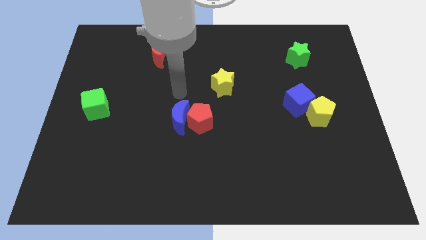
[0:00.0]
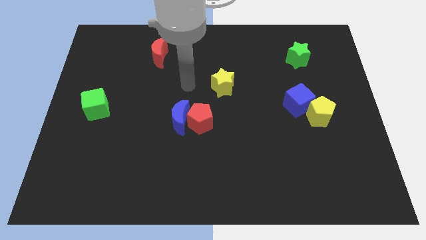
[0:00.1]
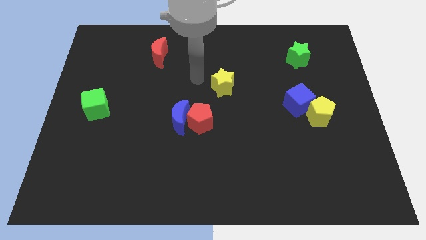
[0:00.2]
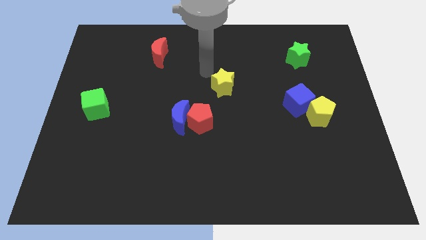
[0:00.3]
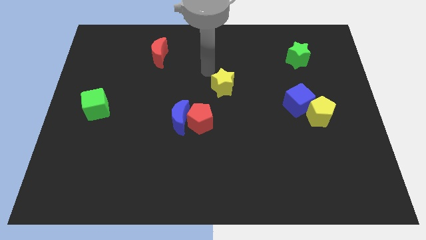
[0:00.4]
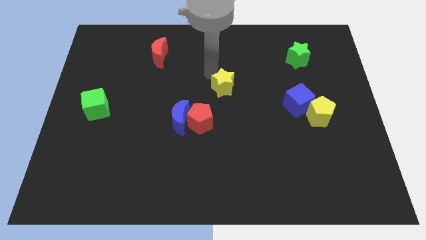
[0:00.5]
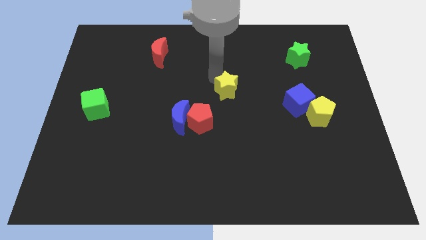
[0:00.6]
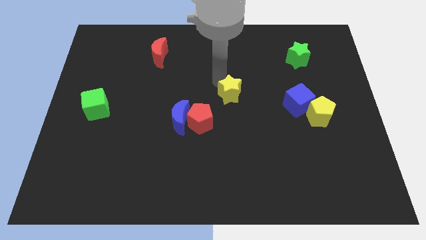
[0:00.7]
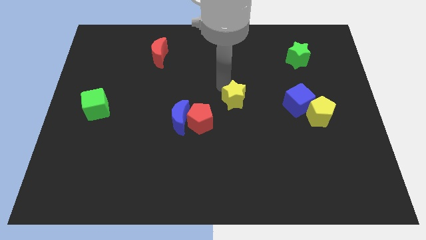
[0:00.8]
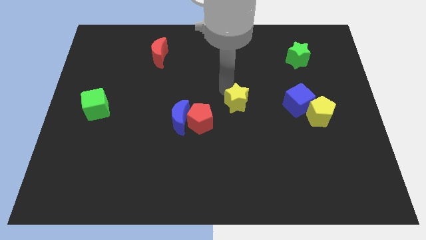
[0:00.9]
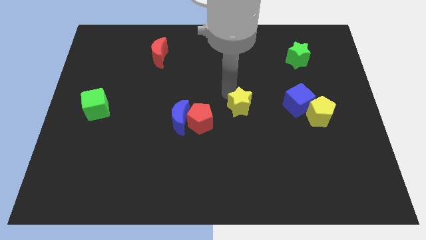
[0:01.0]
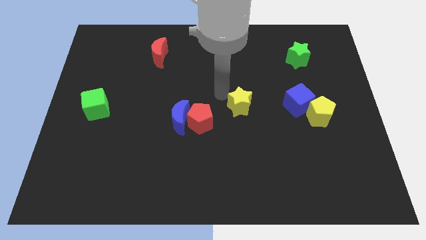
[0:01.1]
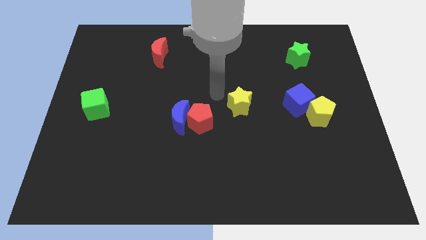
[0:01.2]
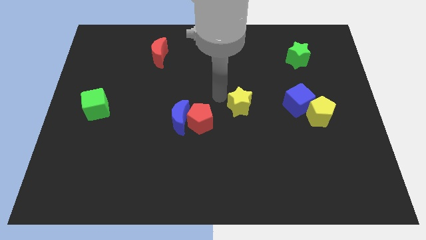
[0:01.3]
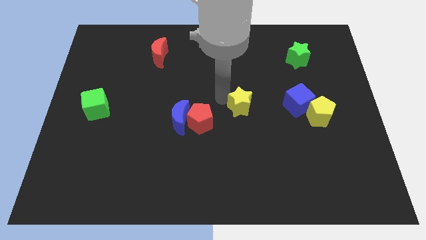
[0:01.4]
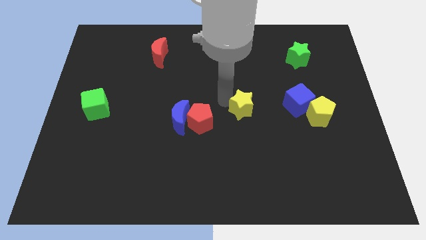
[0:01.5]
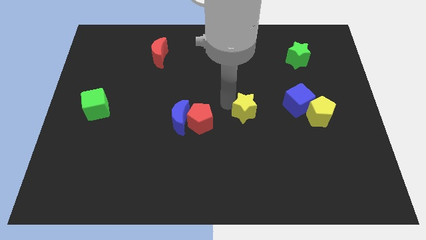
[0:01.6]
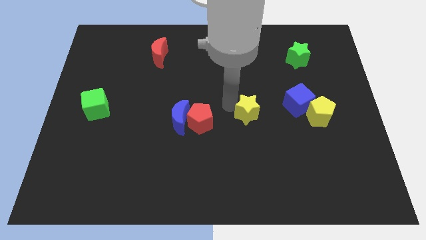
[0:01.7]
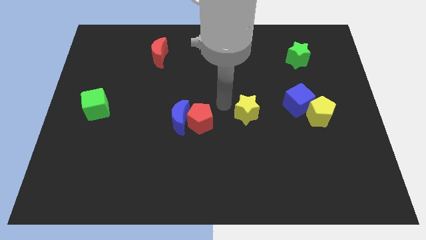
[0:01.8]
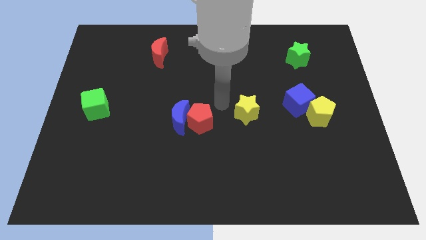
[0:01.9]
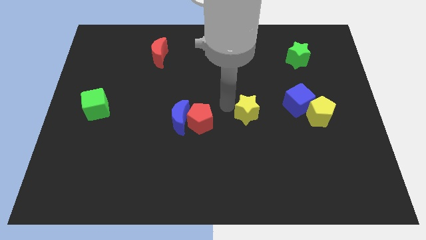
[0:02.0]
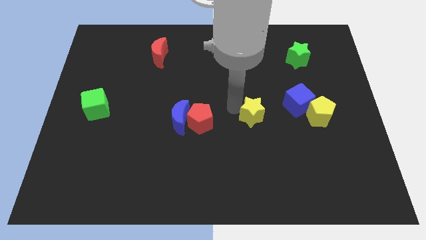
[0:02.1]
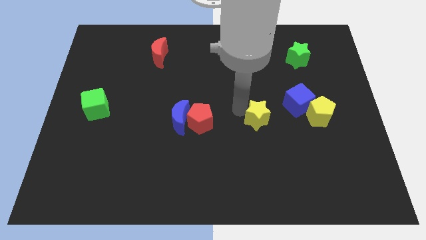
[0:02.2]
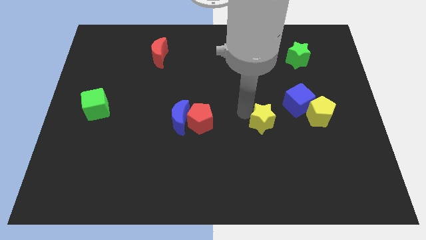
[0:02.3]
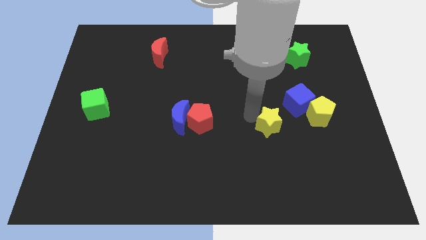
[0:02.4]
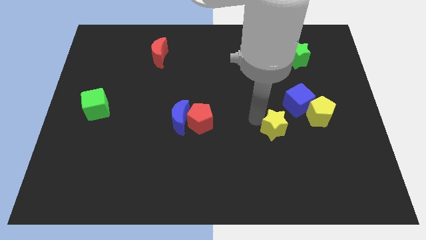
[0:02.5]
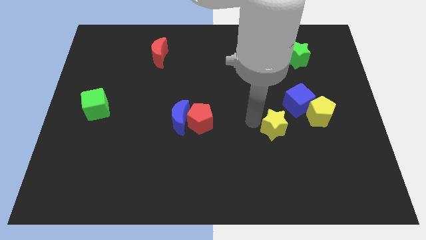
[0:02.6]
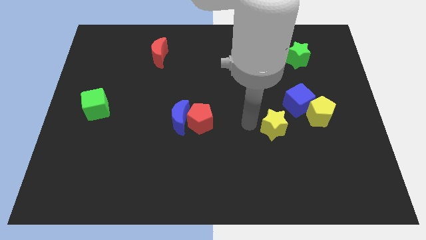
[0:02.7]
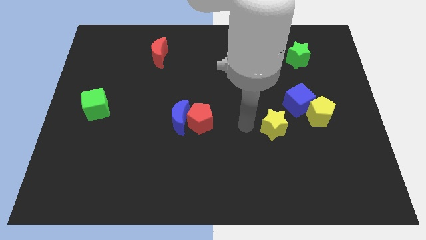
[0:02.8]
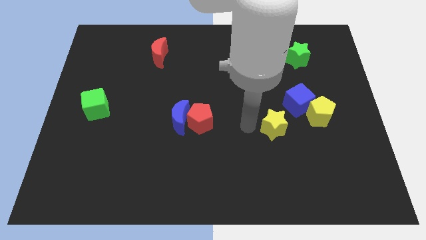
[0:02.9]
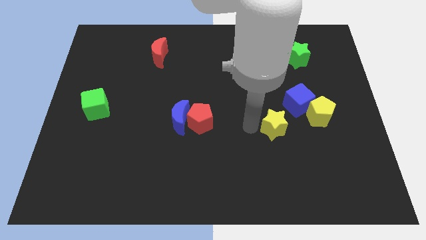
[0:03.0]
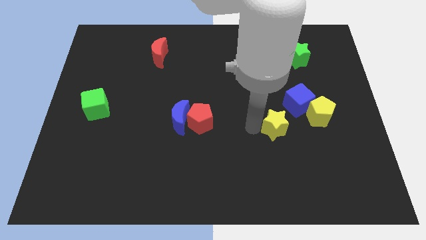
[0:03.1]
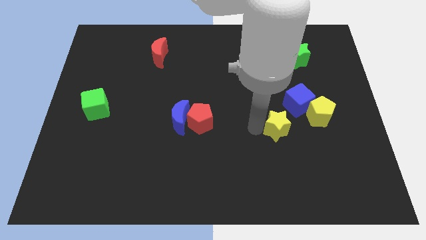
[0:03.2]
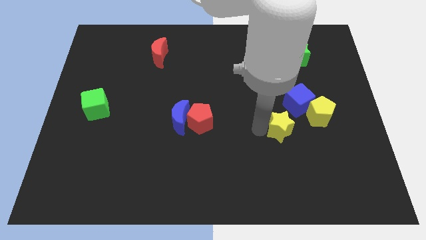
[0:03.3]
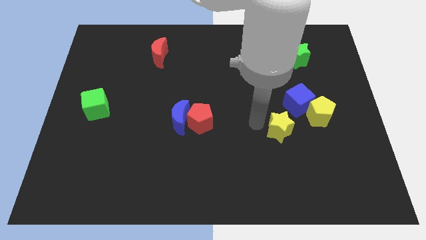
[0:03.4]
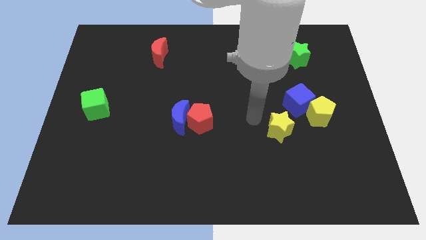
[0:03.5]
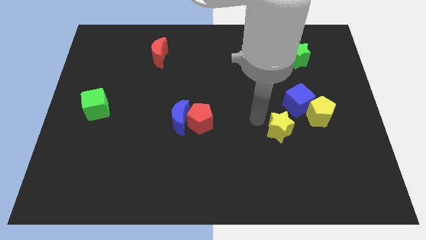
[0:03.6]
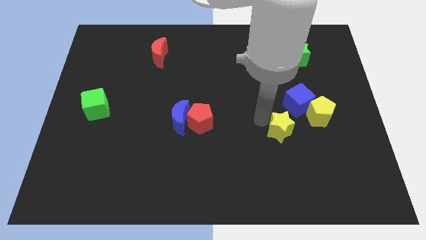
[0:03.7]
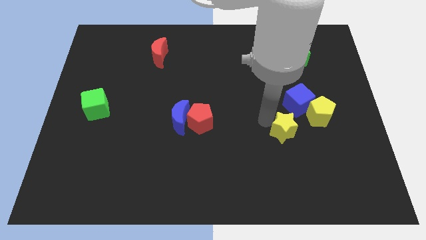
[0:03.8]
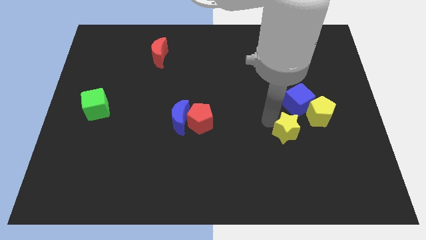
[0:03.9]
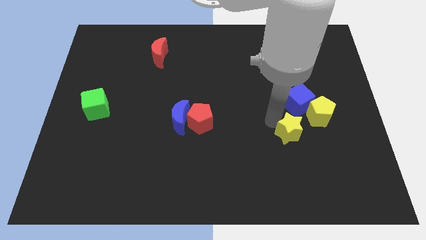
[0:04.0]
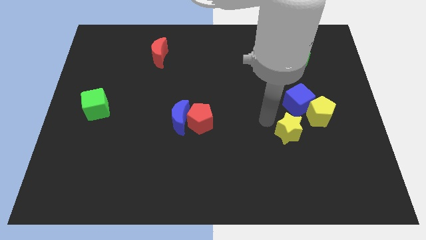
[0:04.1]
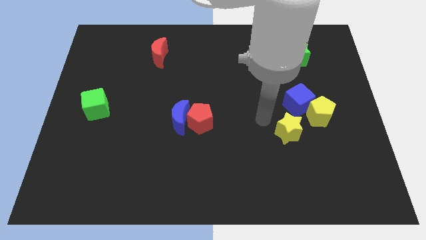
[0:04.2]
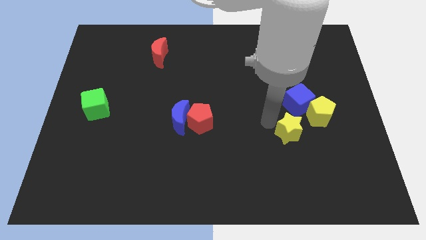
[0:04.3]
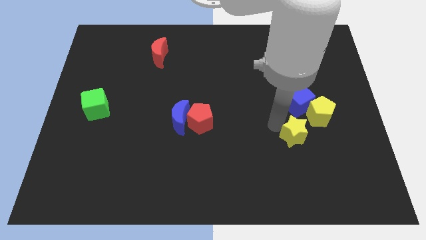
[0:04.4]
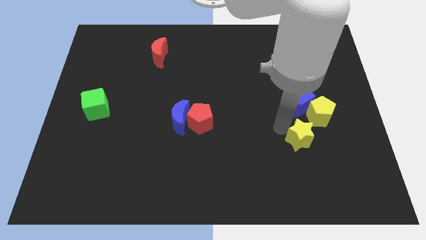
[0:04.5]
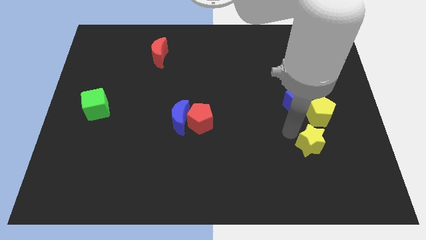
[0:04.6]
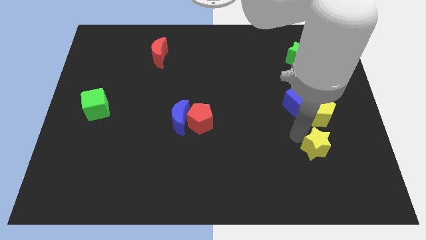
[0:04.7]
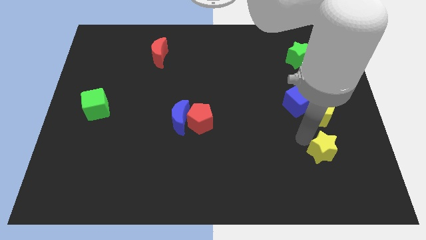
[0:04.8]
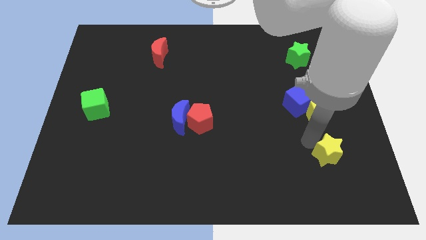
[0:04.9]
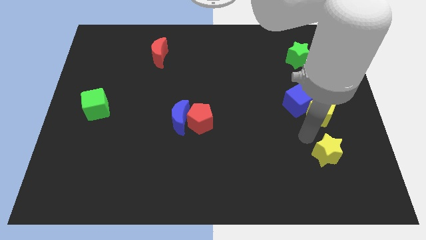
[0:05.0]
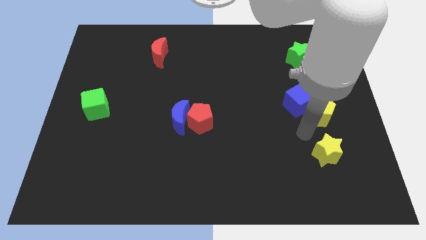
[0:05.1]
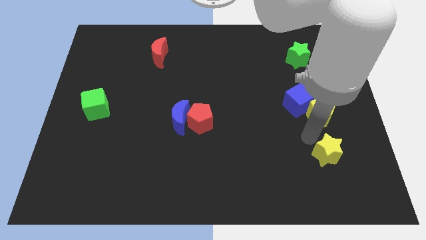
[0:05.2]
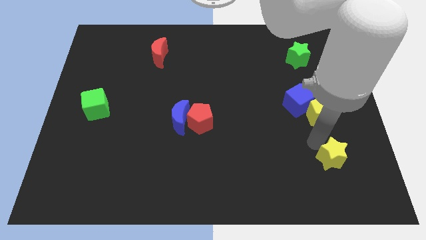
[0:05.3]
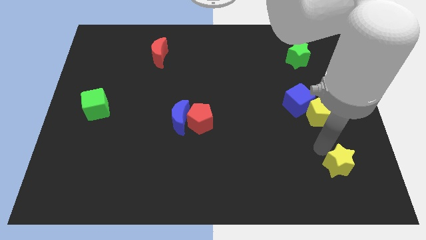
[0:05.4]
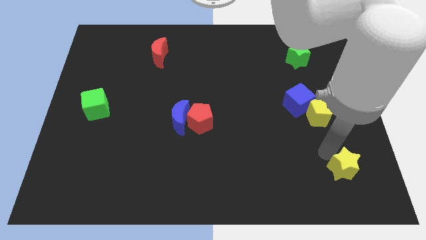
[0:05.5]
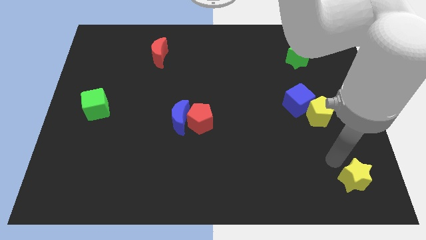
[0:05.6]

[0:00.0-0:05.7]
put the yellow star to the bottom right corner

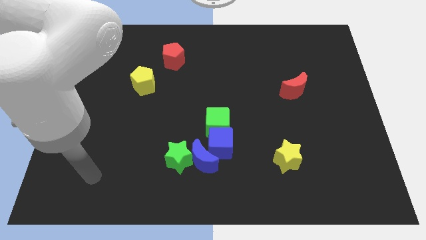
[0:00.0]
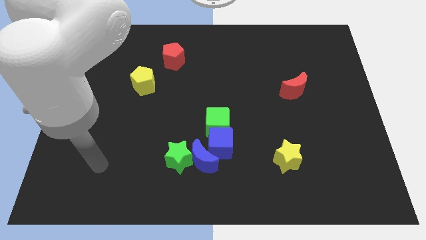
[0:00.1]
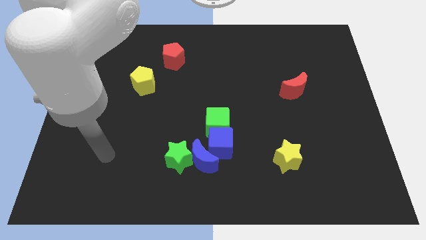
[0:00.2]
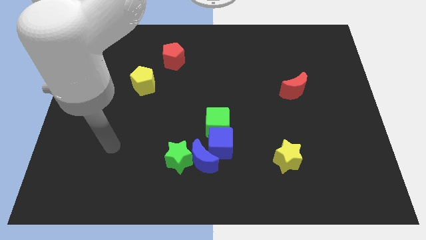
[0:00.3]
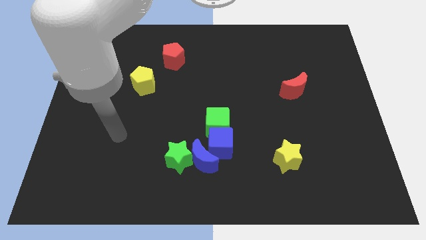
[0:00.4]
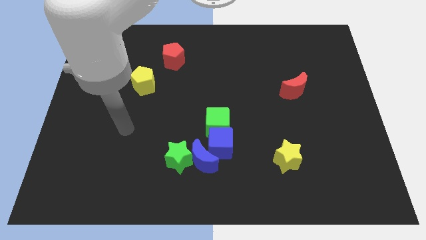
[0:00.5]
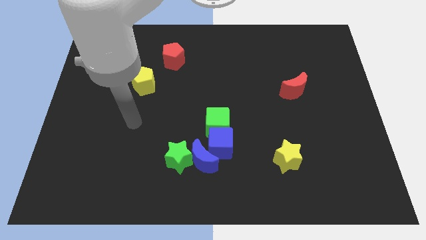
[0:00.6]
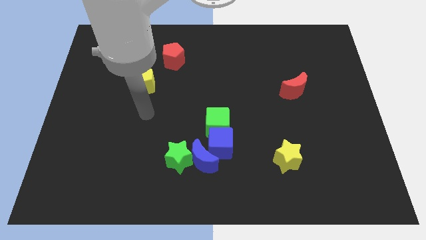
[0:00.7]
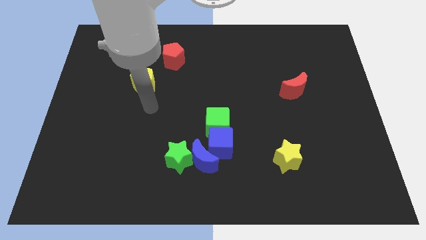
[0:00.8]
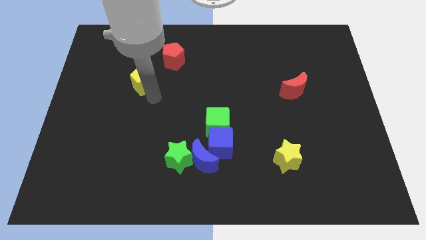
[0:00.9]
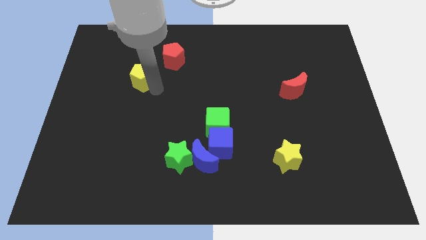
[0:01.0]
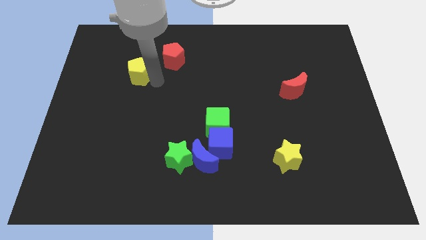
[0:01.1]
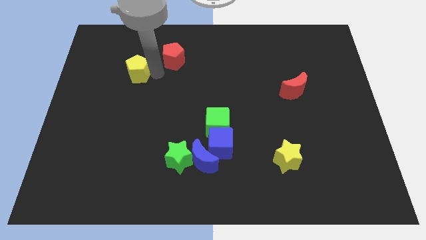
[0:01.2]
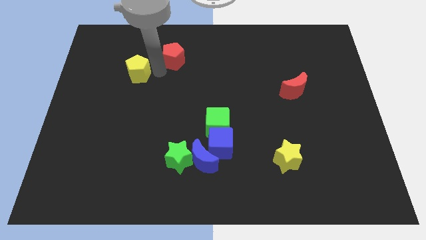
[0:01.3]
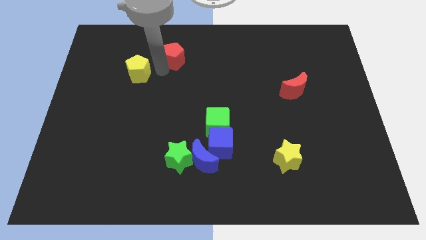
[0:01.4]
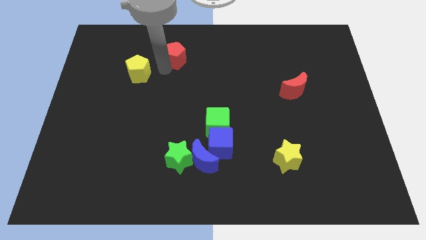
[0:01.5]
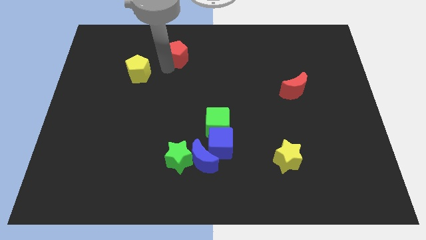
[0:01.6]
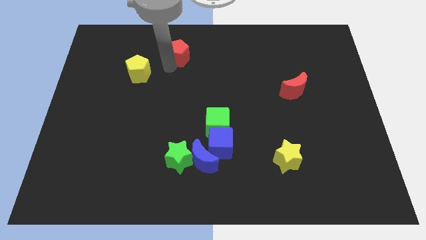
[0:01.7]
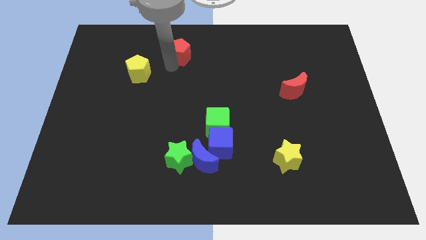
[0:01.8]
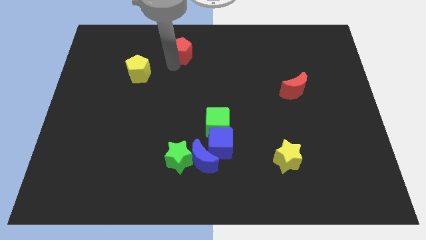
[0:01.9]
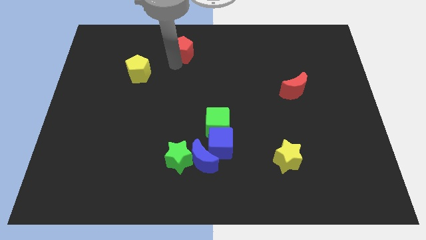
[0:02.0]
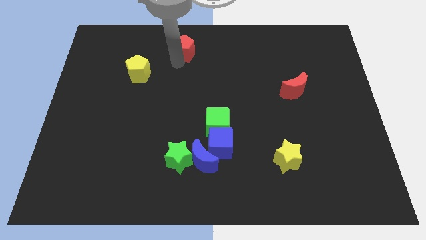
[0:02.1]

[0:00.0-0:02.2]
put the red pentagon to the towards your base
